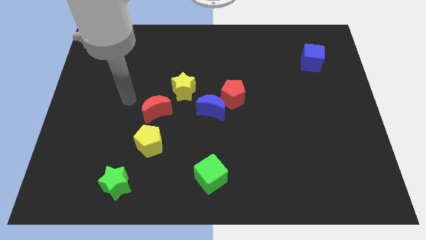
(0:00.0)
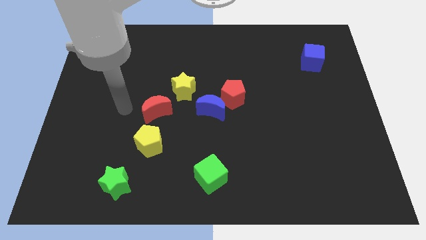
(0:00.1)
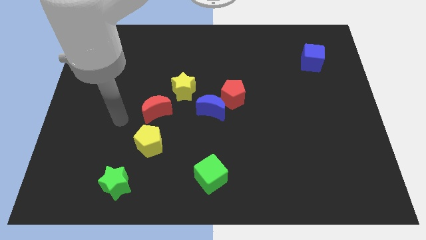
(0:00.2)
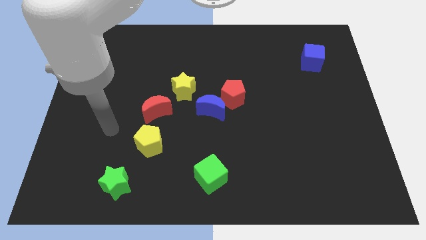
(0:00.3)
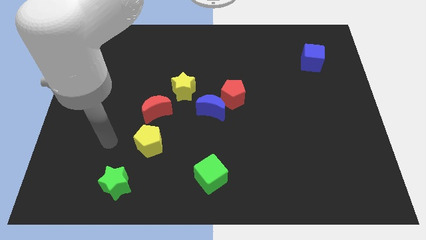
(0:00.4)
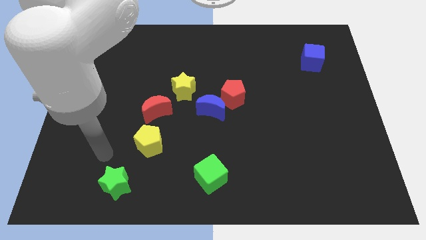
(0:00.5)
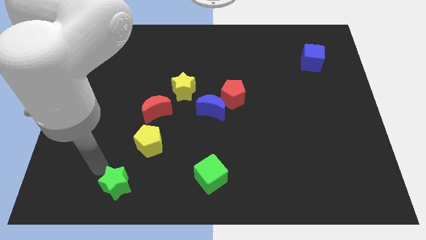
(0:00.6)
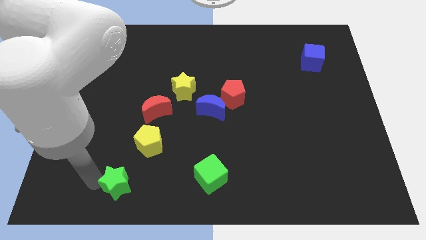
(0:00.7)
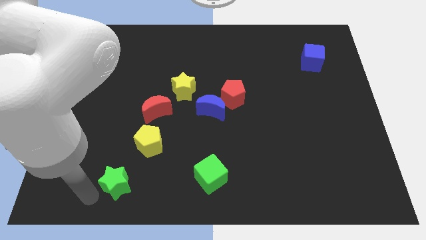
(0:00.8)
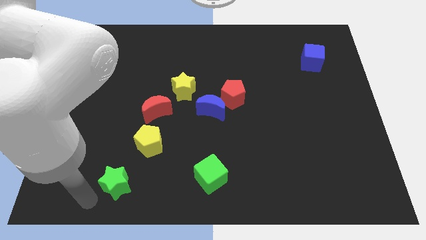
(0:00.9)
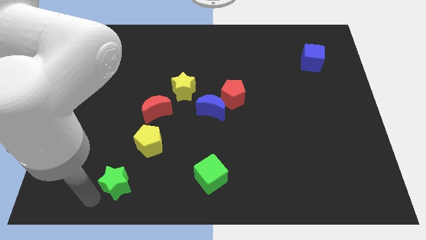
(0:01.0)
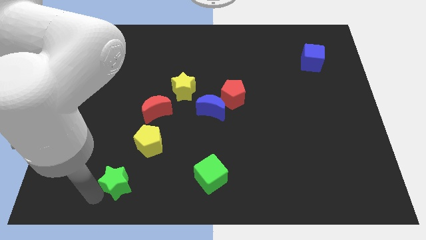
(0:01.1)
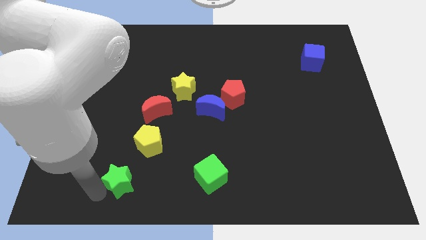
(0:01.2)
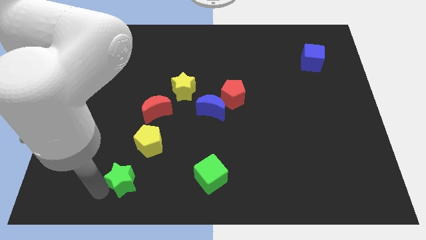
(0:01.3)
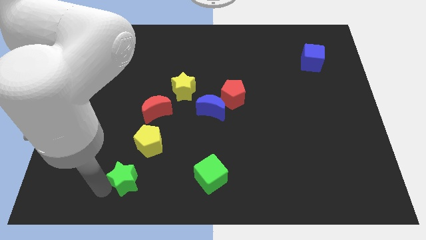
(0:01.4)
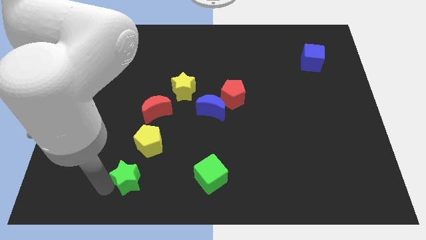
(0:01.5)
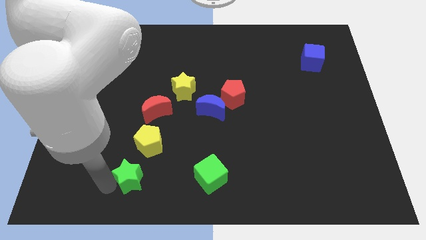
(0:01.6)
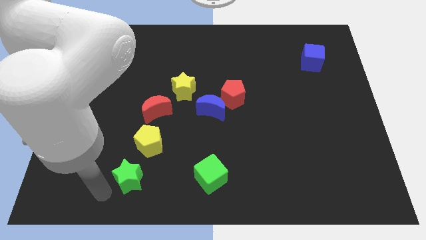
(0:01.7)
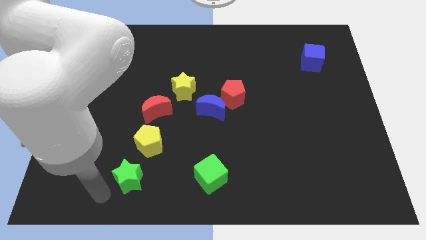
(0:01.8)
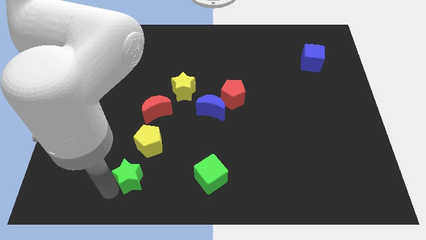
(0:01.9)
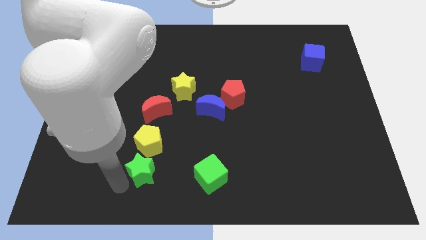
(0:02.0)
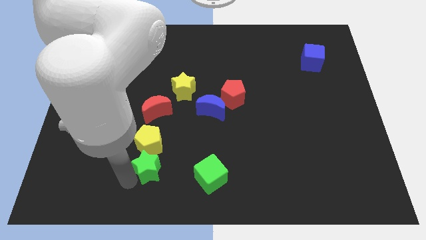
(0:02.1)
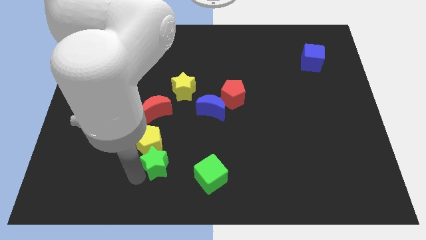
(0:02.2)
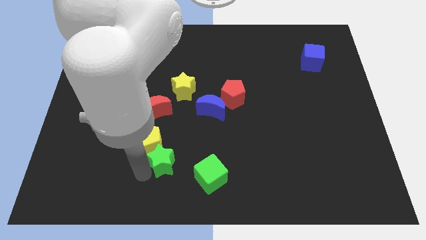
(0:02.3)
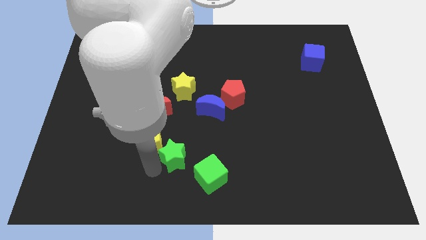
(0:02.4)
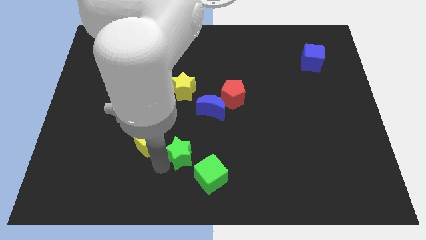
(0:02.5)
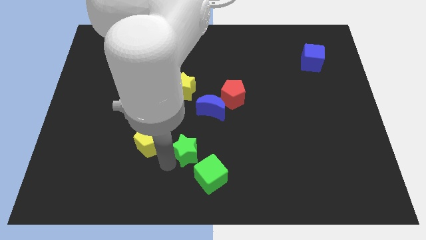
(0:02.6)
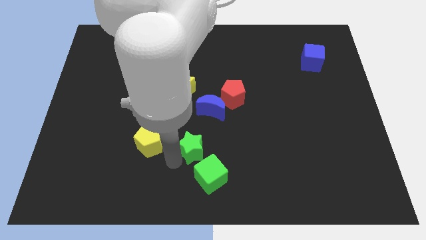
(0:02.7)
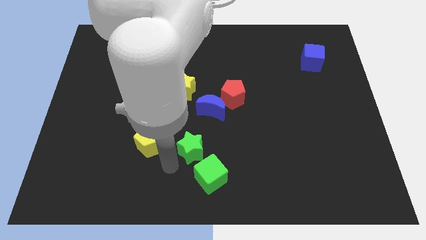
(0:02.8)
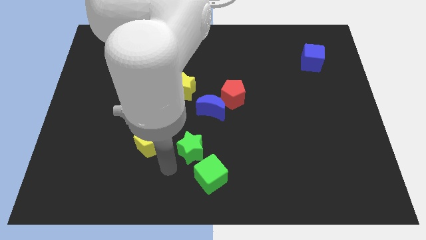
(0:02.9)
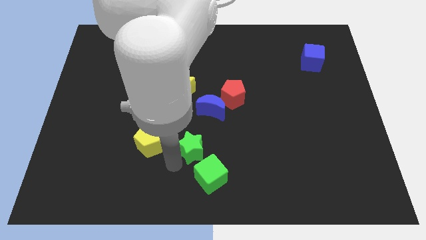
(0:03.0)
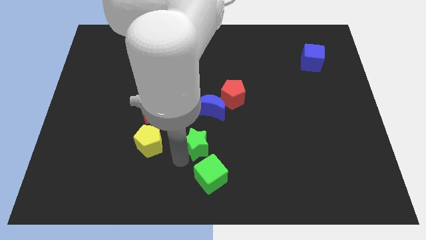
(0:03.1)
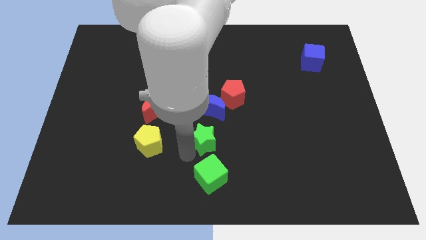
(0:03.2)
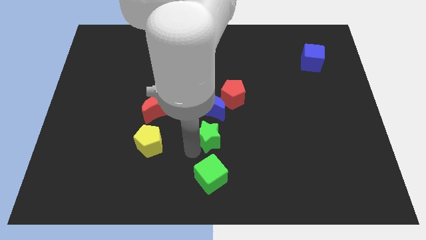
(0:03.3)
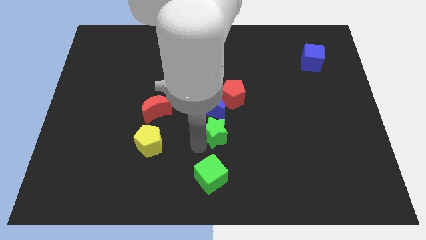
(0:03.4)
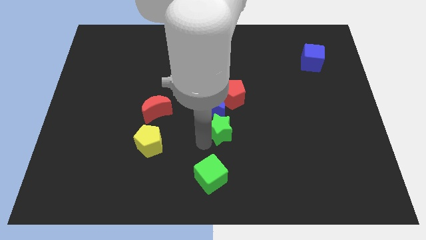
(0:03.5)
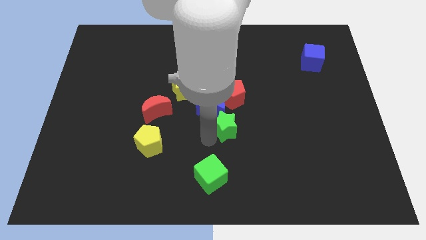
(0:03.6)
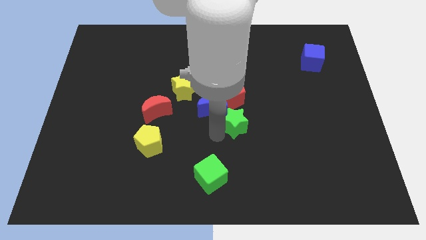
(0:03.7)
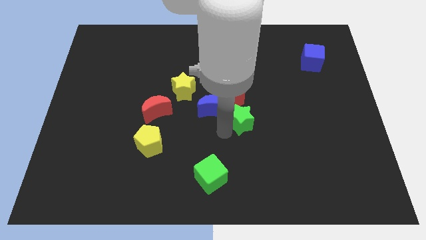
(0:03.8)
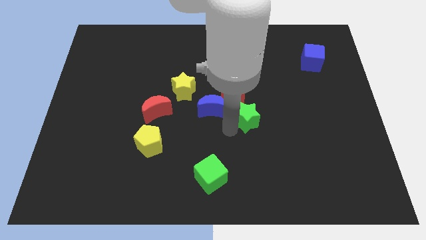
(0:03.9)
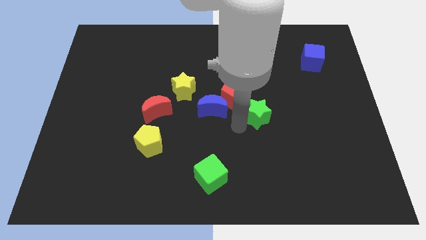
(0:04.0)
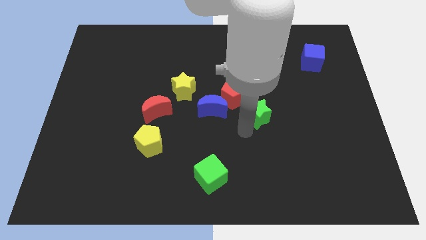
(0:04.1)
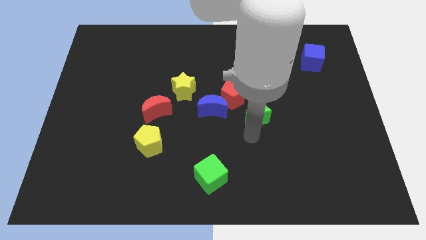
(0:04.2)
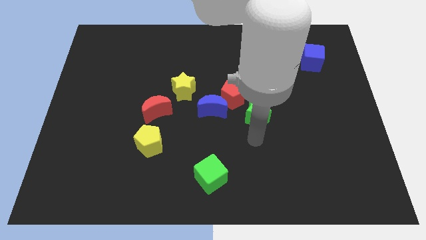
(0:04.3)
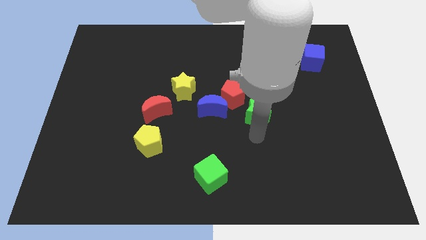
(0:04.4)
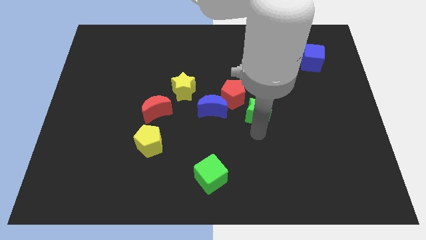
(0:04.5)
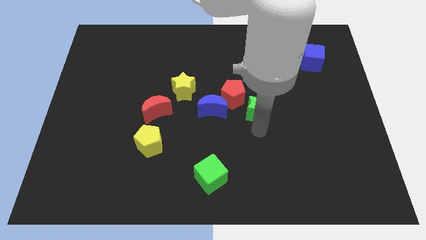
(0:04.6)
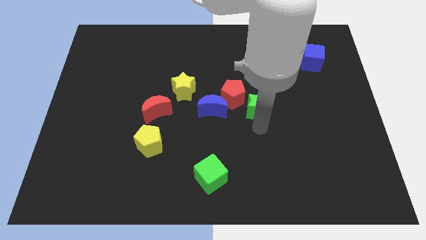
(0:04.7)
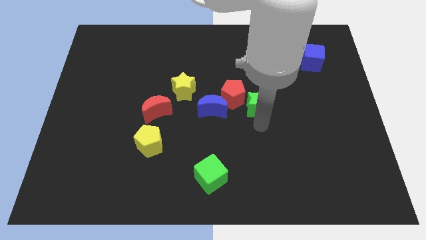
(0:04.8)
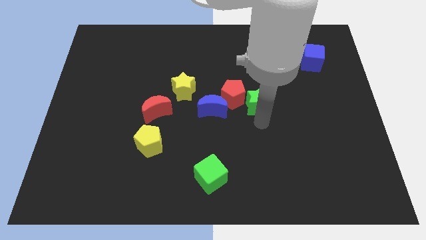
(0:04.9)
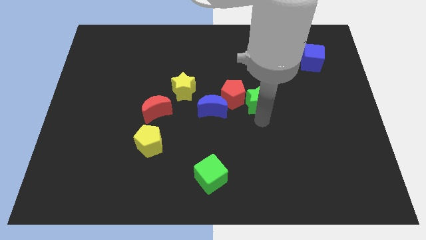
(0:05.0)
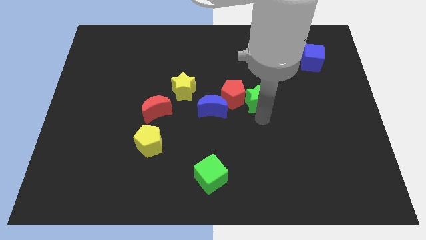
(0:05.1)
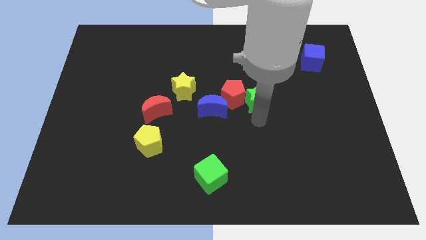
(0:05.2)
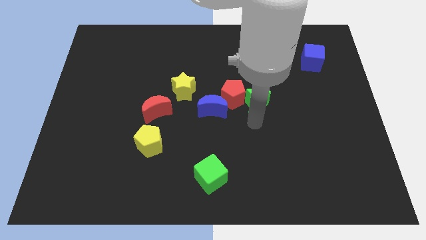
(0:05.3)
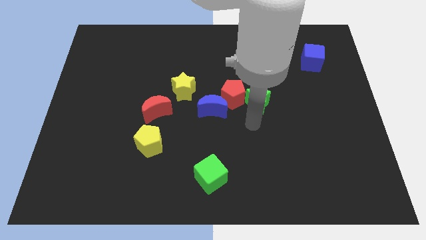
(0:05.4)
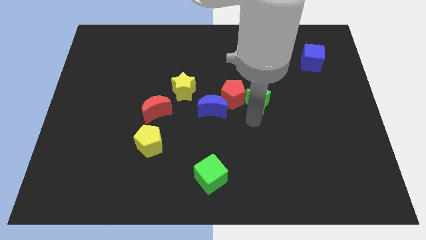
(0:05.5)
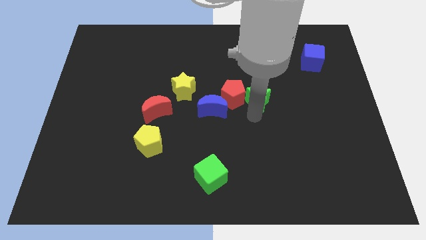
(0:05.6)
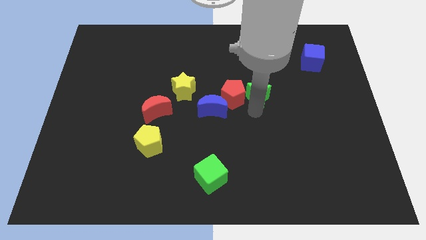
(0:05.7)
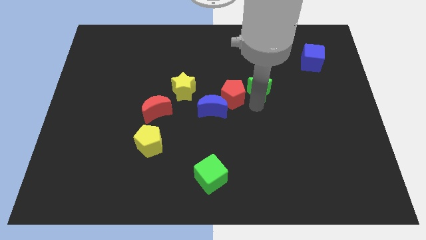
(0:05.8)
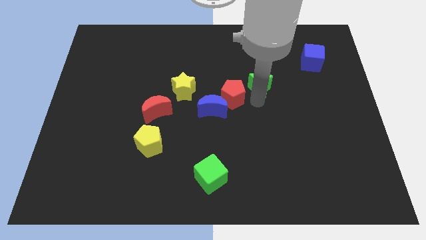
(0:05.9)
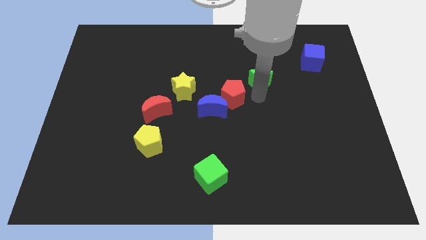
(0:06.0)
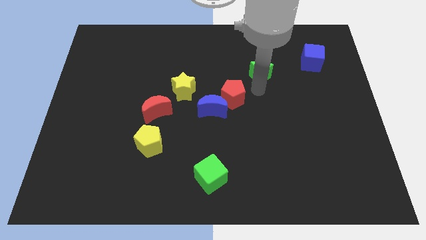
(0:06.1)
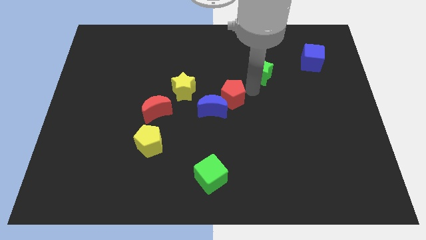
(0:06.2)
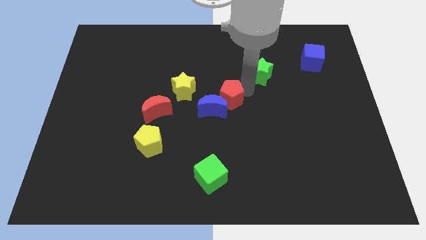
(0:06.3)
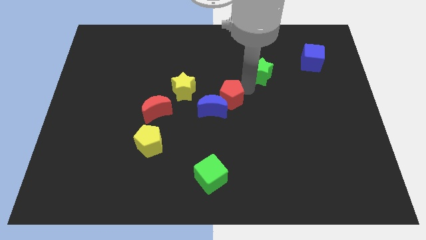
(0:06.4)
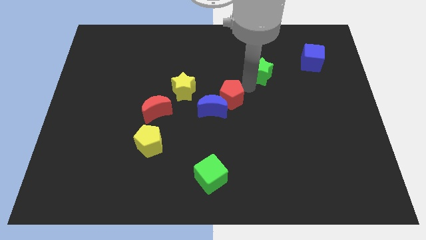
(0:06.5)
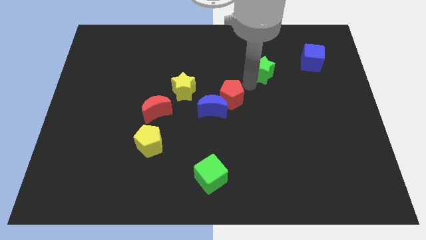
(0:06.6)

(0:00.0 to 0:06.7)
put the green star to the left side of the blue cube

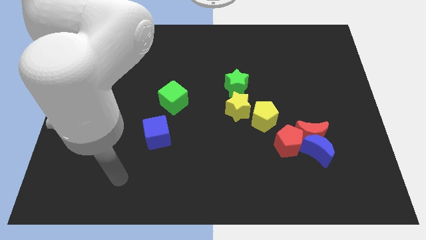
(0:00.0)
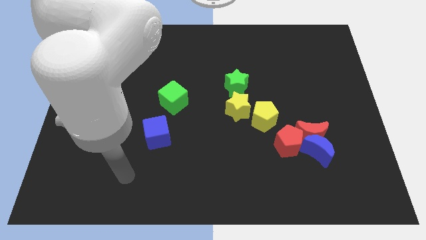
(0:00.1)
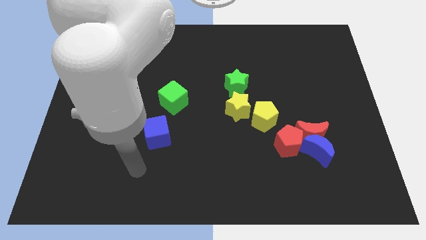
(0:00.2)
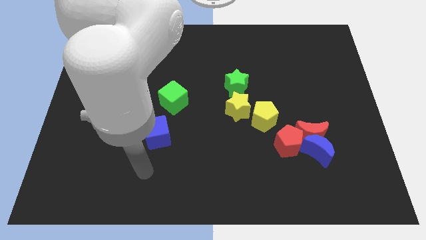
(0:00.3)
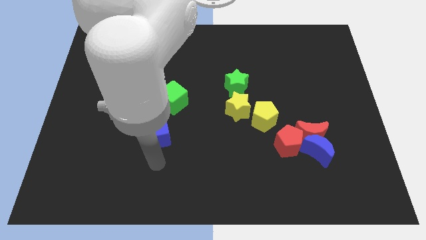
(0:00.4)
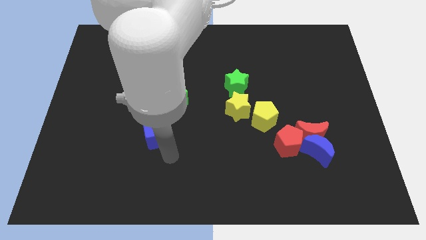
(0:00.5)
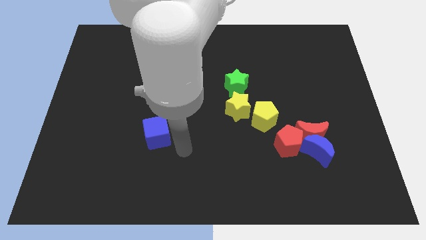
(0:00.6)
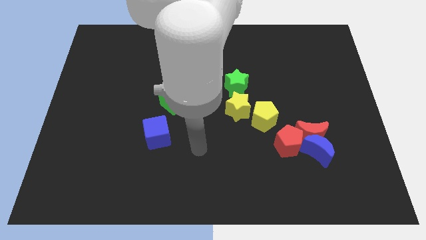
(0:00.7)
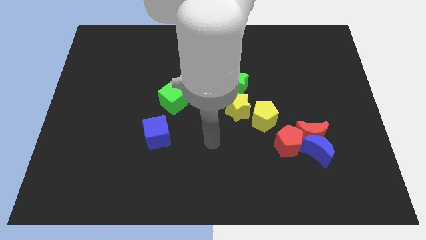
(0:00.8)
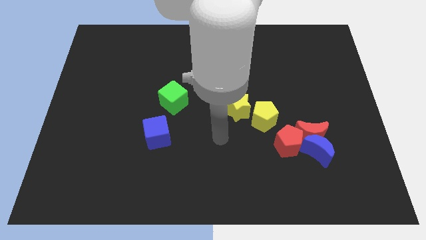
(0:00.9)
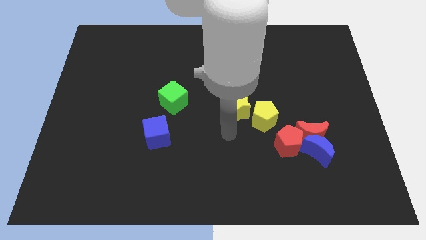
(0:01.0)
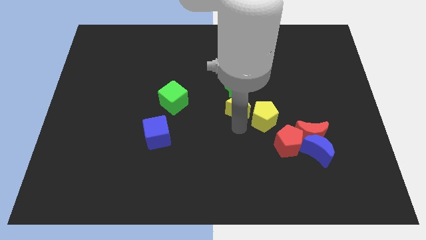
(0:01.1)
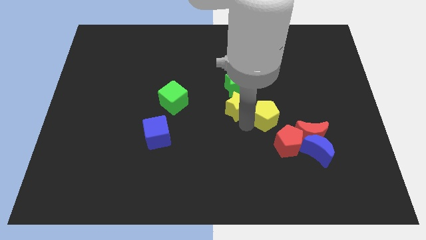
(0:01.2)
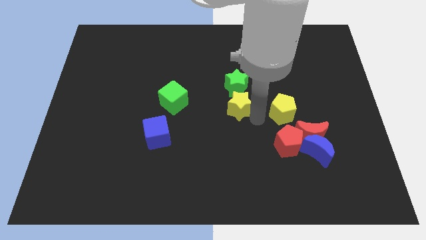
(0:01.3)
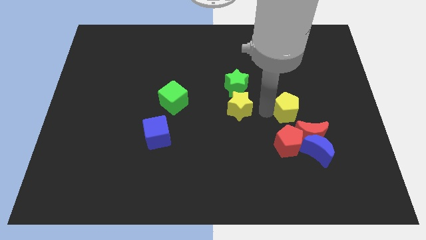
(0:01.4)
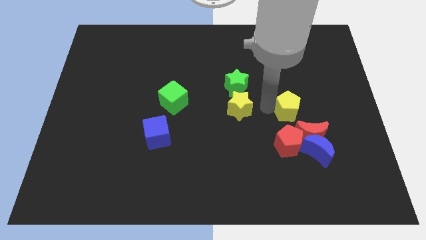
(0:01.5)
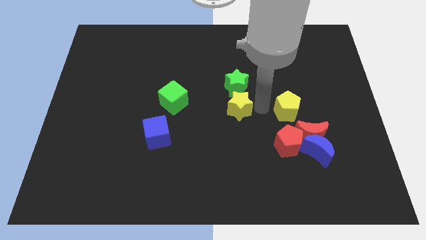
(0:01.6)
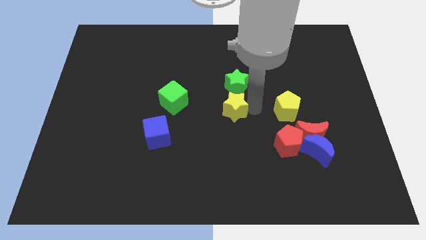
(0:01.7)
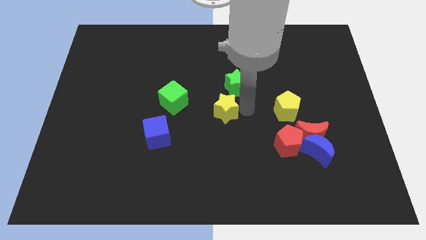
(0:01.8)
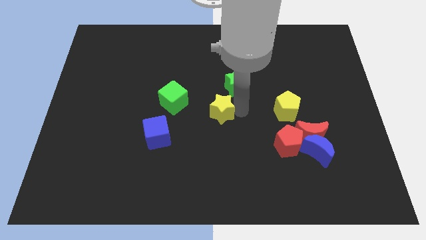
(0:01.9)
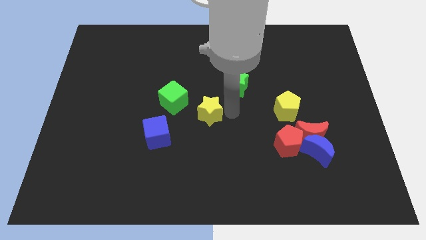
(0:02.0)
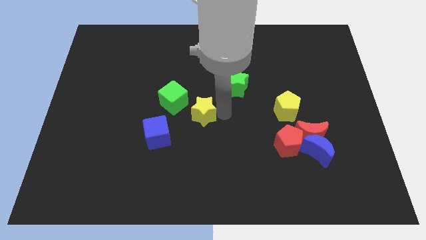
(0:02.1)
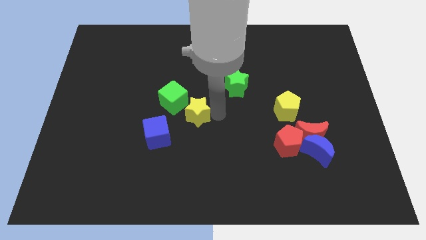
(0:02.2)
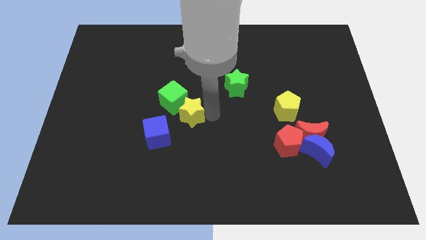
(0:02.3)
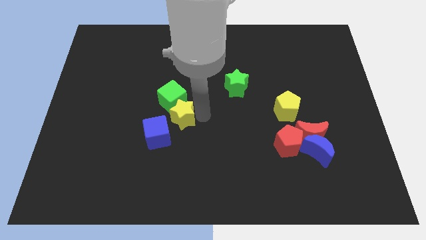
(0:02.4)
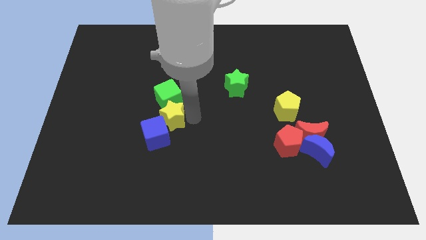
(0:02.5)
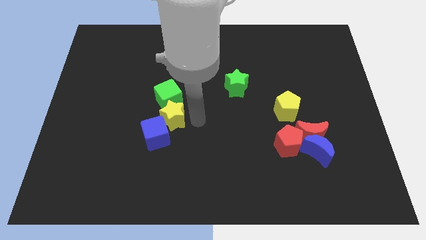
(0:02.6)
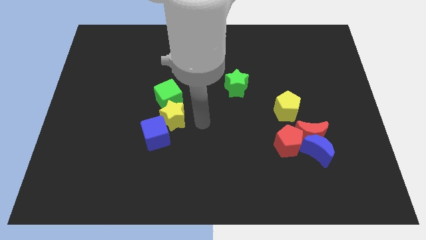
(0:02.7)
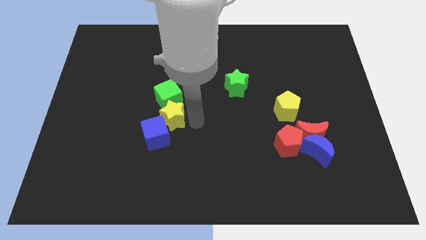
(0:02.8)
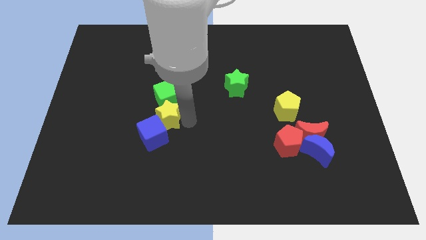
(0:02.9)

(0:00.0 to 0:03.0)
put the yellow star diagonally down and to the left of the green cube
